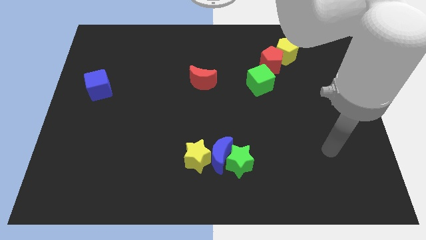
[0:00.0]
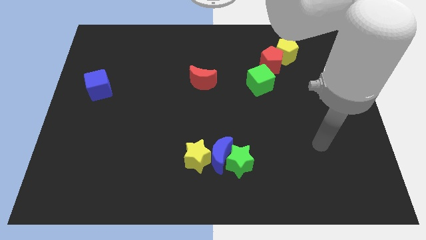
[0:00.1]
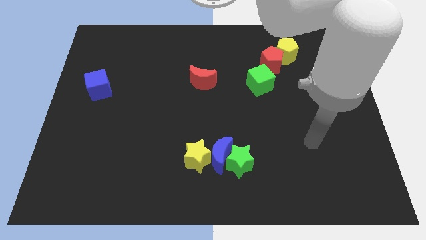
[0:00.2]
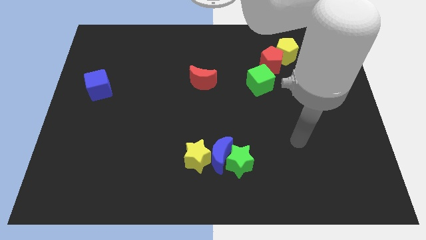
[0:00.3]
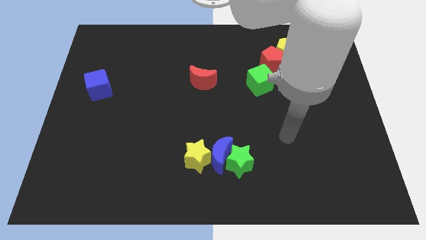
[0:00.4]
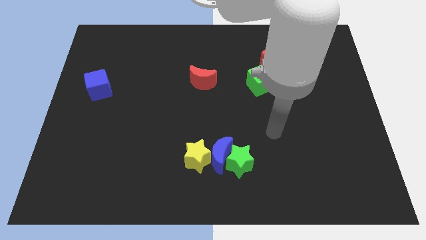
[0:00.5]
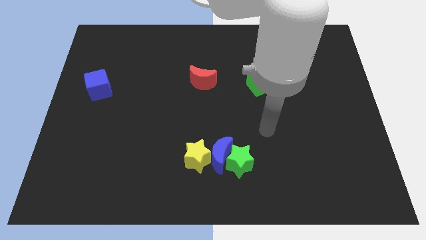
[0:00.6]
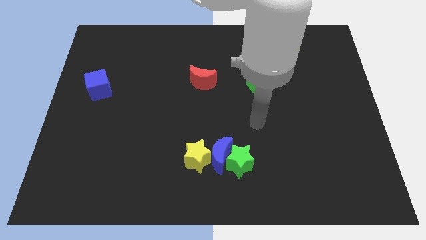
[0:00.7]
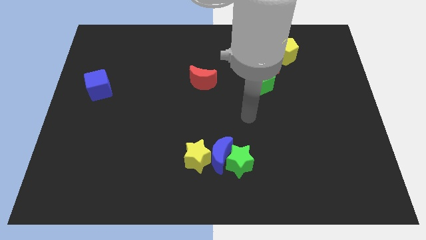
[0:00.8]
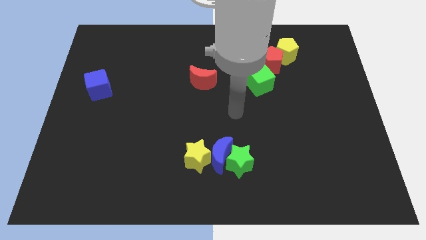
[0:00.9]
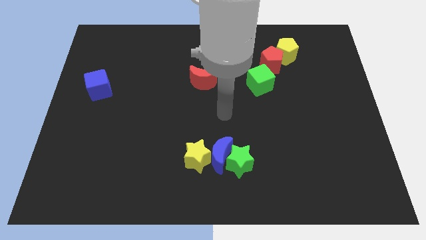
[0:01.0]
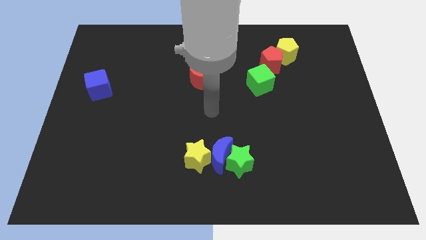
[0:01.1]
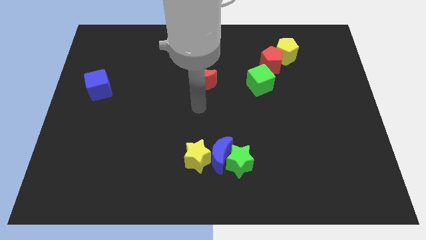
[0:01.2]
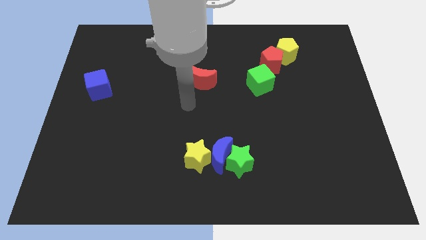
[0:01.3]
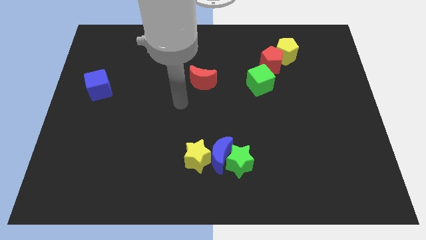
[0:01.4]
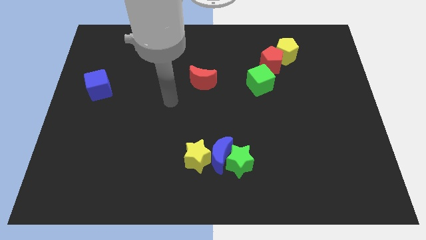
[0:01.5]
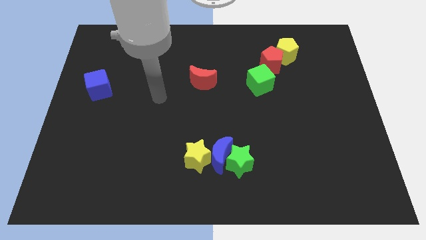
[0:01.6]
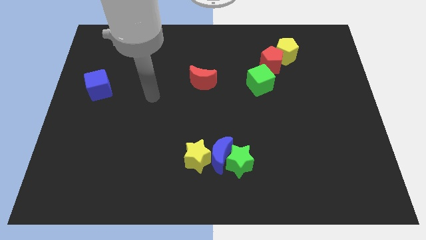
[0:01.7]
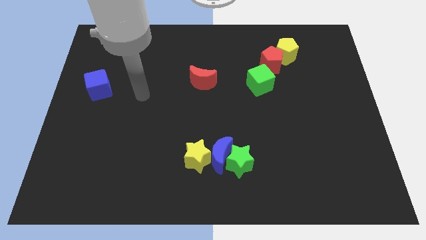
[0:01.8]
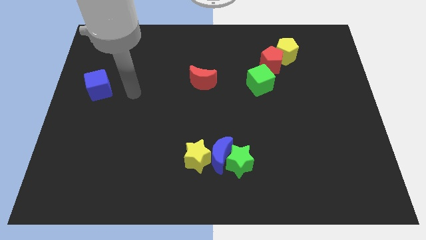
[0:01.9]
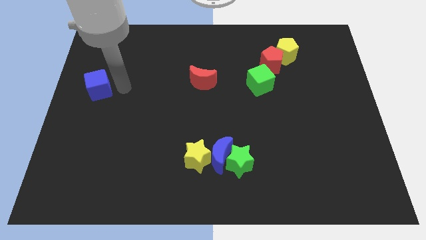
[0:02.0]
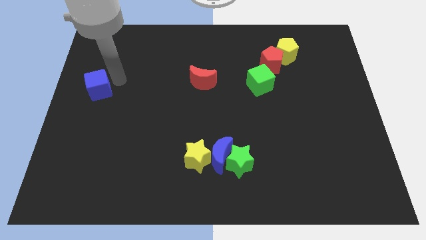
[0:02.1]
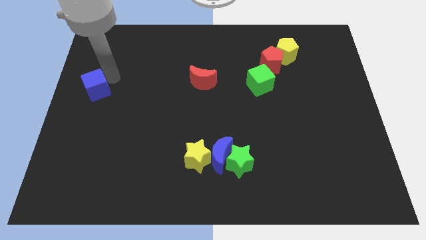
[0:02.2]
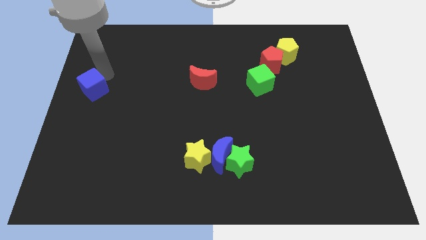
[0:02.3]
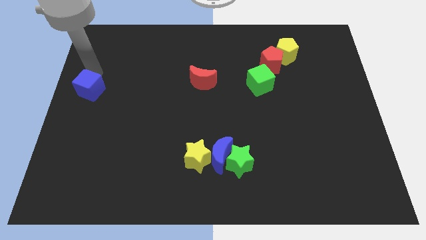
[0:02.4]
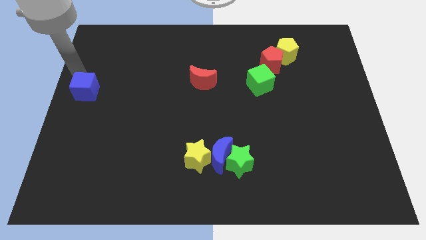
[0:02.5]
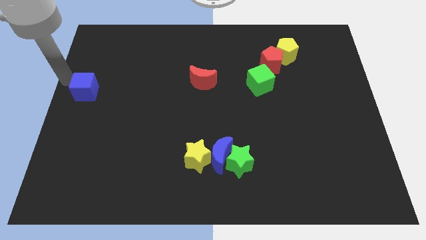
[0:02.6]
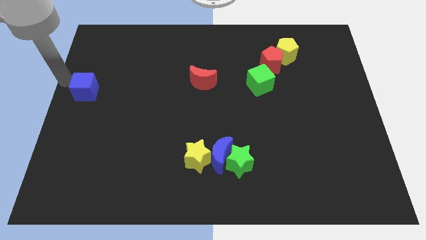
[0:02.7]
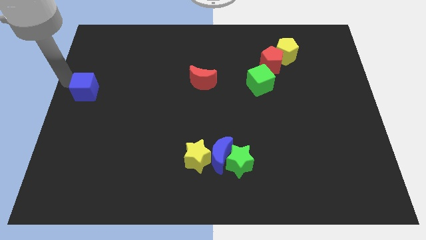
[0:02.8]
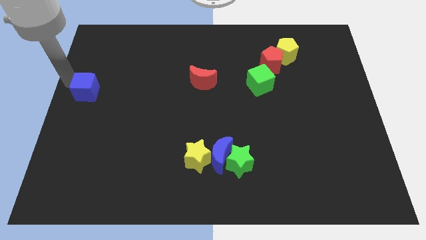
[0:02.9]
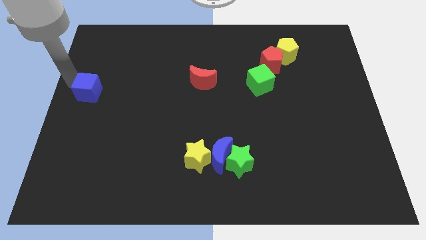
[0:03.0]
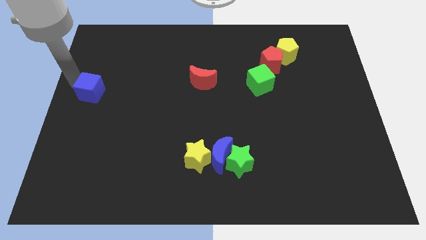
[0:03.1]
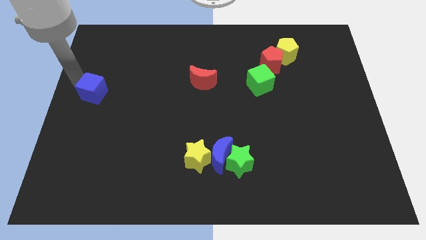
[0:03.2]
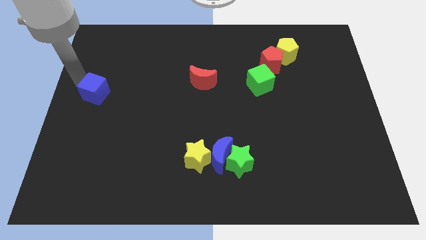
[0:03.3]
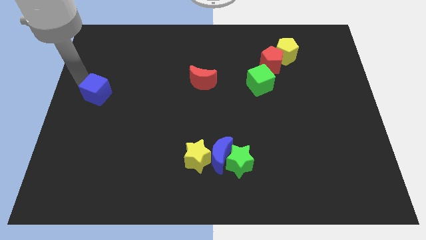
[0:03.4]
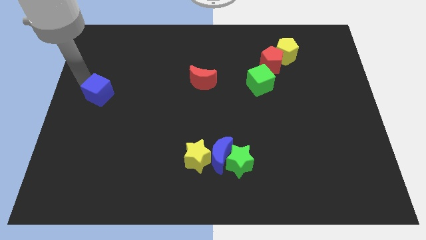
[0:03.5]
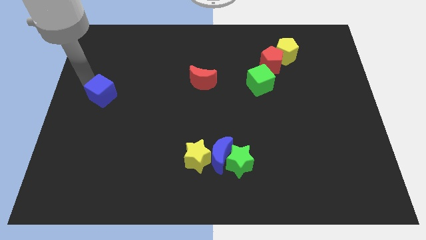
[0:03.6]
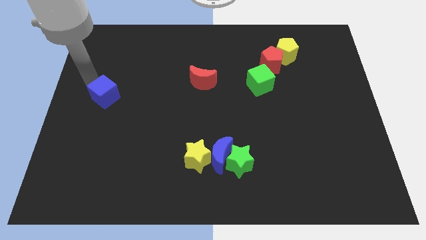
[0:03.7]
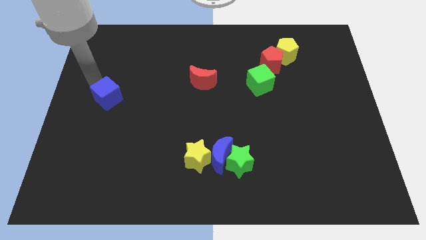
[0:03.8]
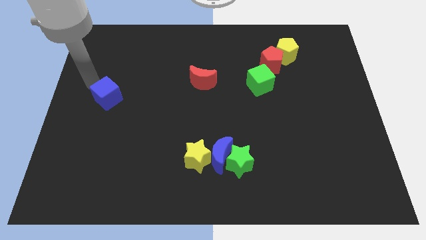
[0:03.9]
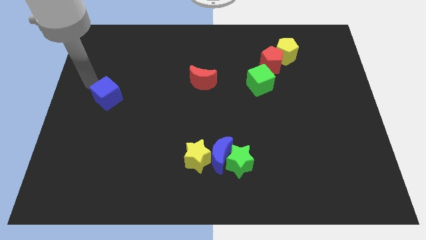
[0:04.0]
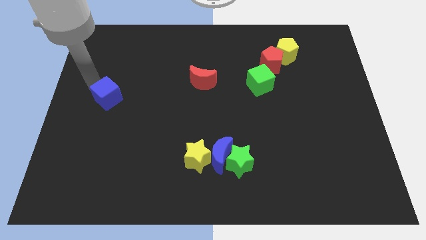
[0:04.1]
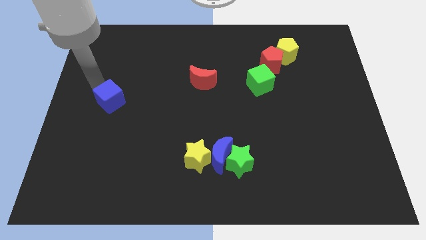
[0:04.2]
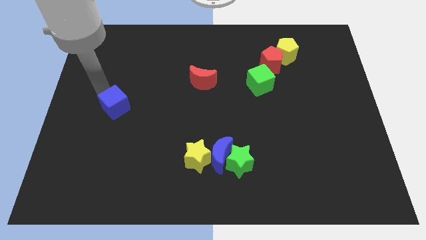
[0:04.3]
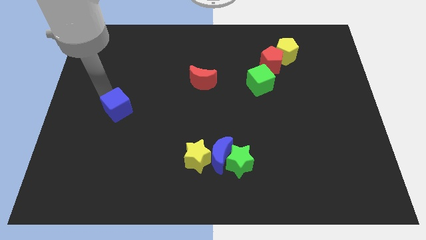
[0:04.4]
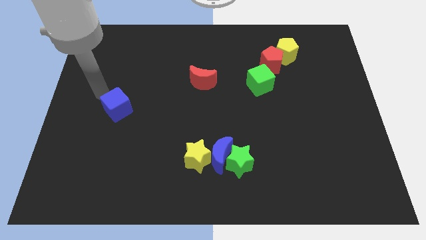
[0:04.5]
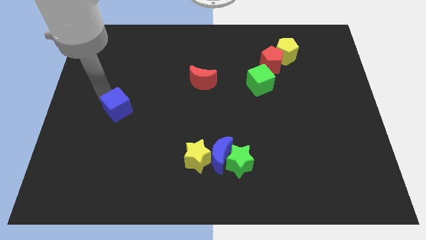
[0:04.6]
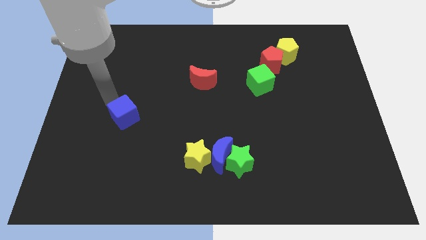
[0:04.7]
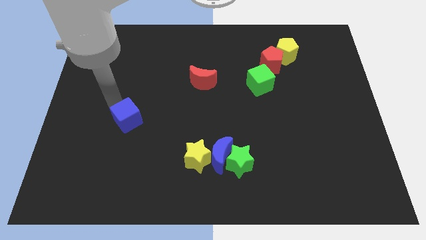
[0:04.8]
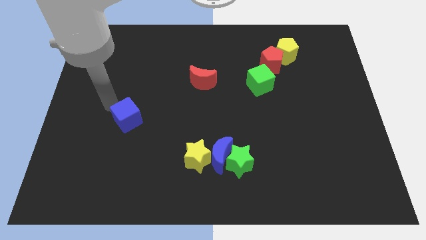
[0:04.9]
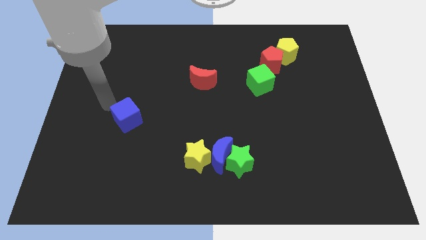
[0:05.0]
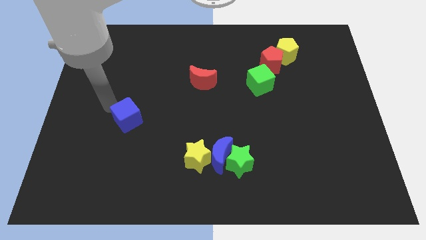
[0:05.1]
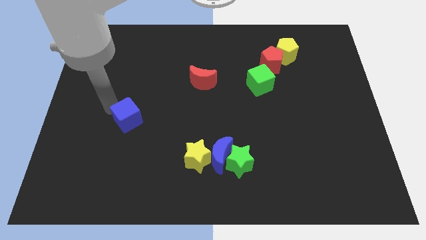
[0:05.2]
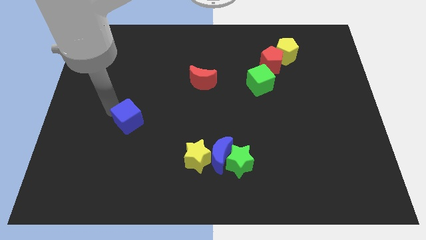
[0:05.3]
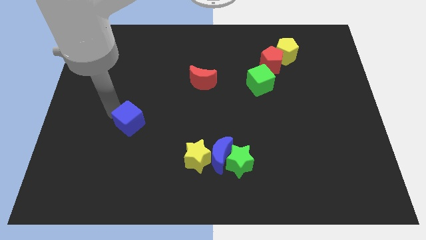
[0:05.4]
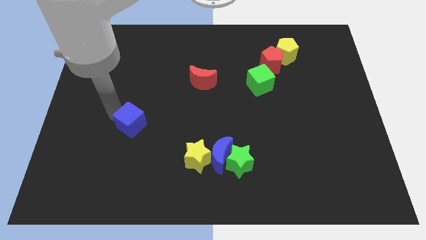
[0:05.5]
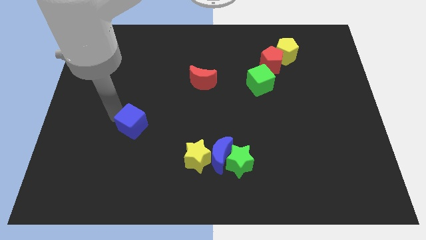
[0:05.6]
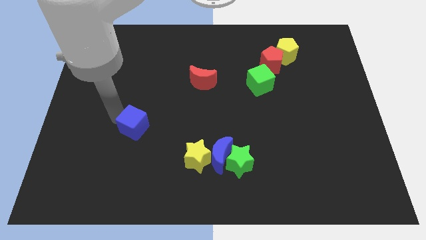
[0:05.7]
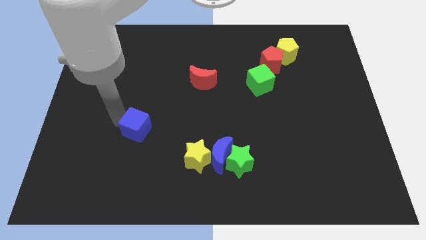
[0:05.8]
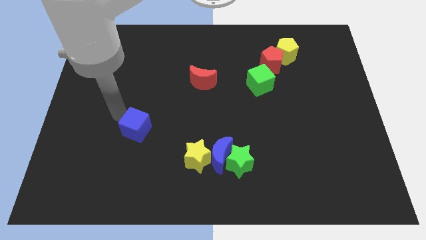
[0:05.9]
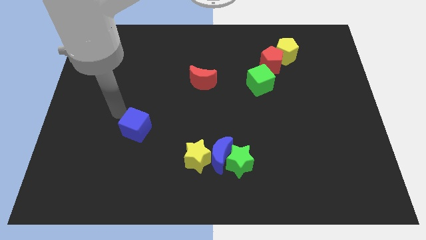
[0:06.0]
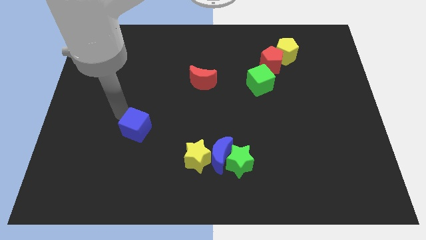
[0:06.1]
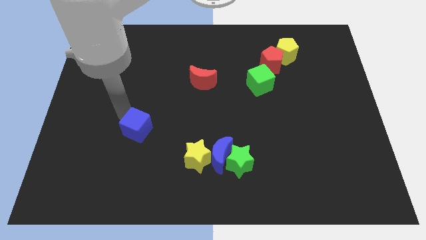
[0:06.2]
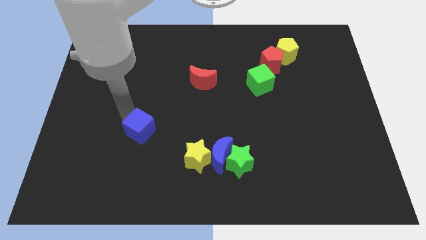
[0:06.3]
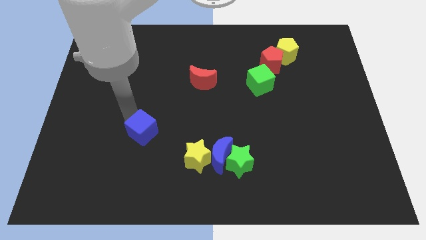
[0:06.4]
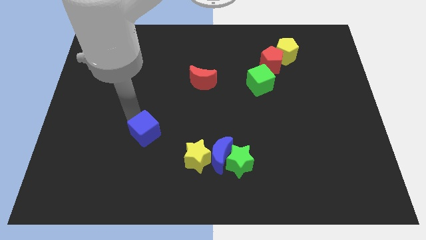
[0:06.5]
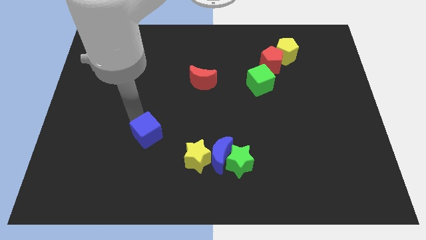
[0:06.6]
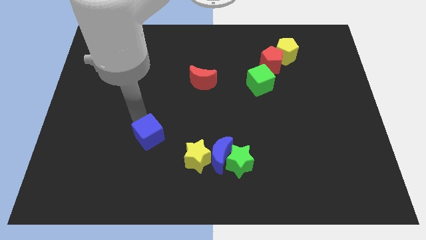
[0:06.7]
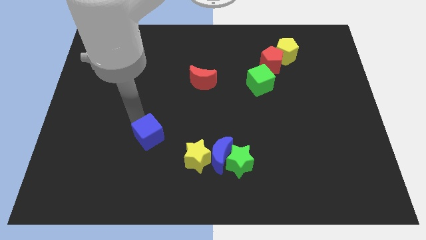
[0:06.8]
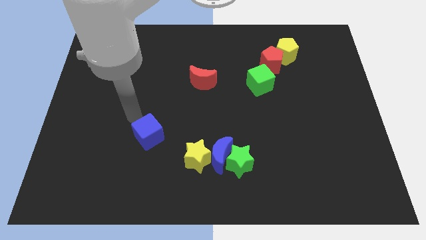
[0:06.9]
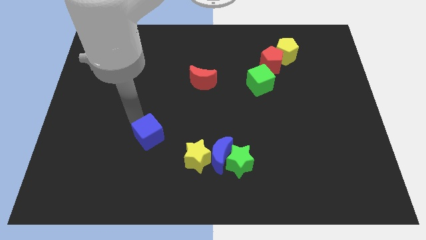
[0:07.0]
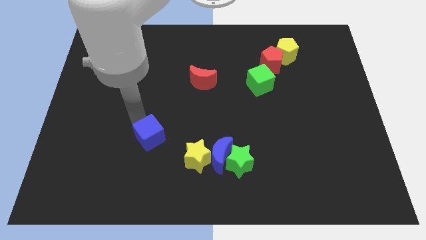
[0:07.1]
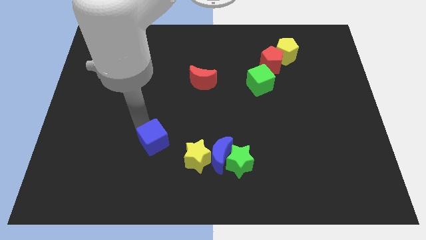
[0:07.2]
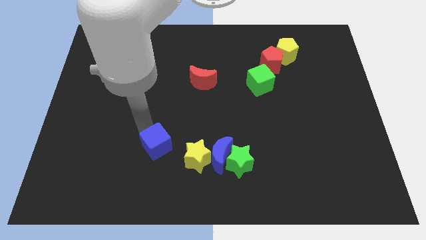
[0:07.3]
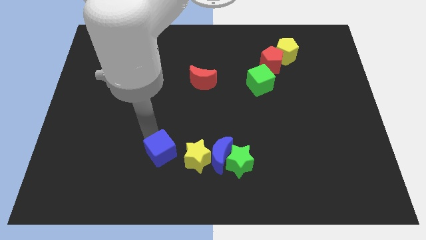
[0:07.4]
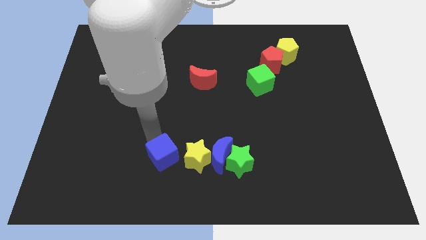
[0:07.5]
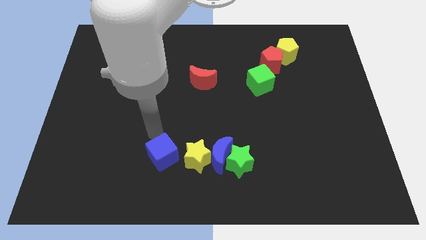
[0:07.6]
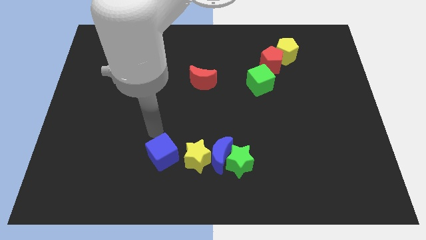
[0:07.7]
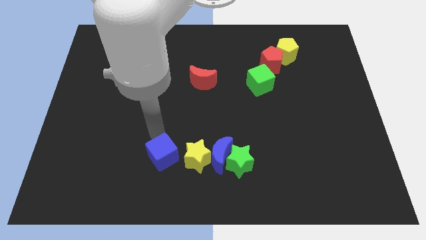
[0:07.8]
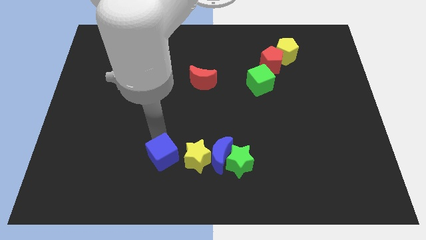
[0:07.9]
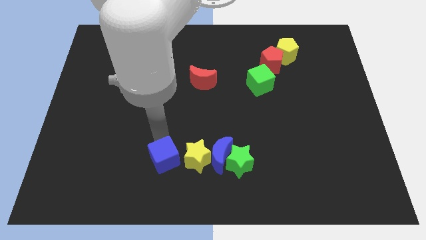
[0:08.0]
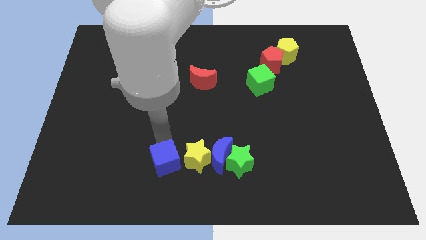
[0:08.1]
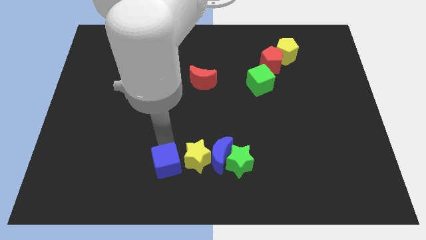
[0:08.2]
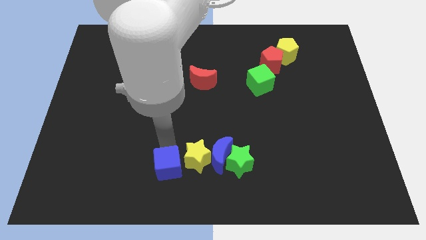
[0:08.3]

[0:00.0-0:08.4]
push the blue cube to the bottom side
